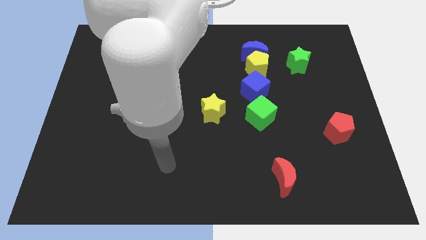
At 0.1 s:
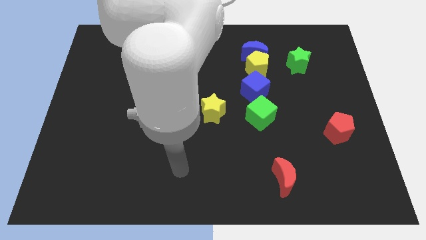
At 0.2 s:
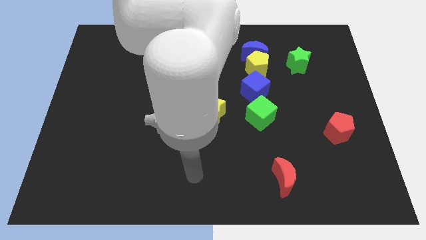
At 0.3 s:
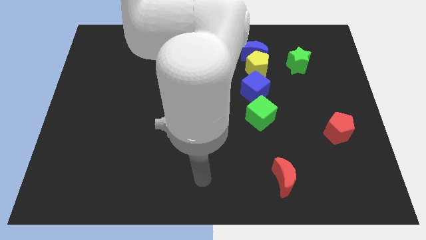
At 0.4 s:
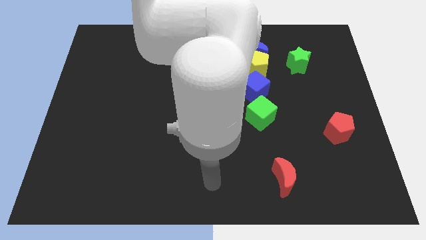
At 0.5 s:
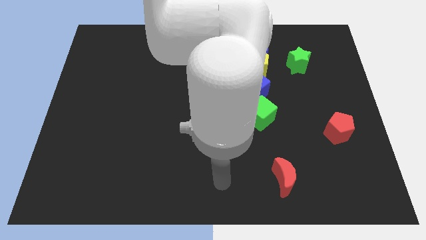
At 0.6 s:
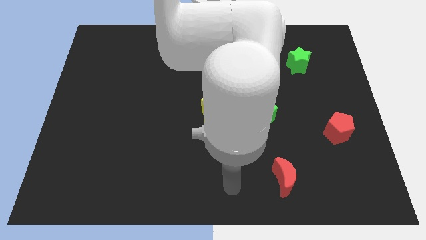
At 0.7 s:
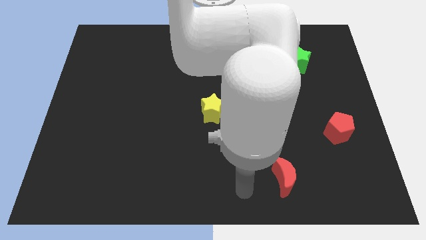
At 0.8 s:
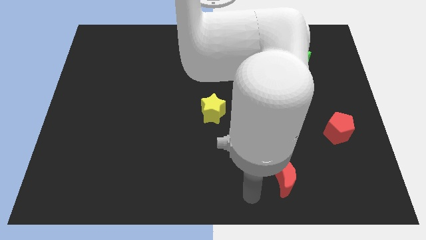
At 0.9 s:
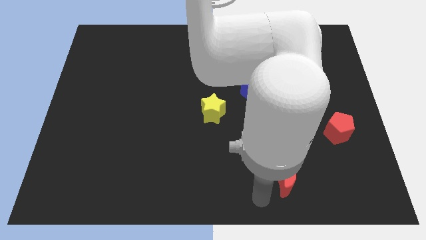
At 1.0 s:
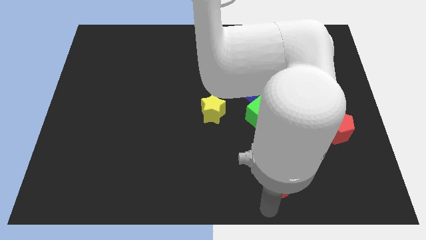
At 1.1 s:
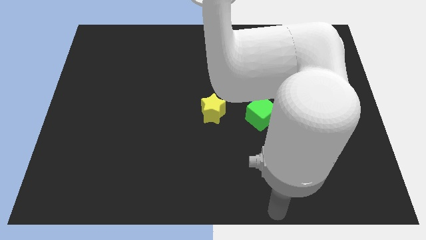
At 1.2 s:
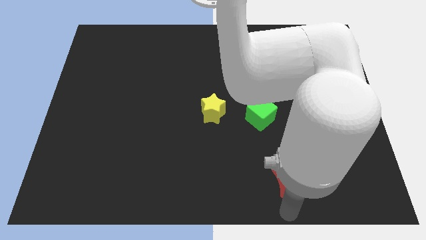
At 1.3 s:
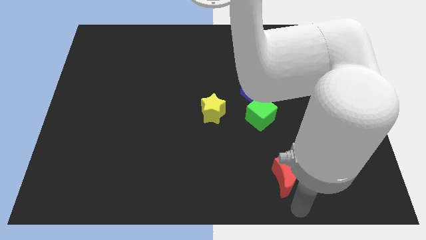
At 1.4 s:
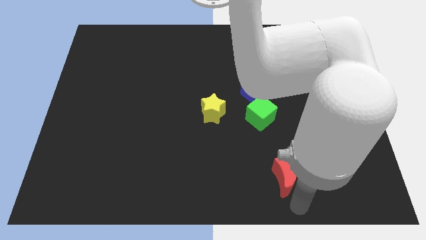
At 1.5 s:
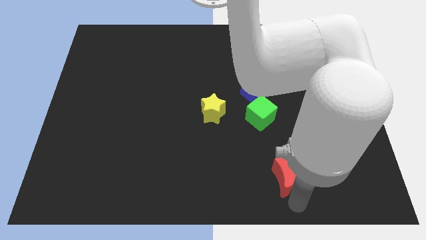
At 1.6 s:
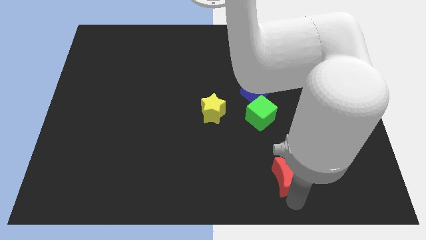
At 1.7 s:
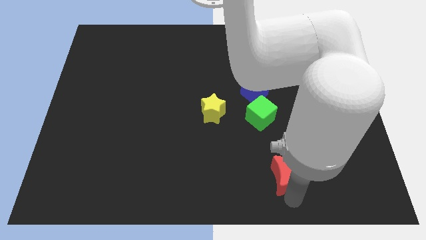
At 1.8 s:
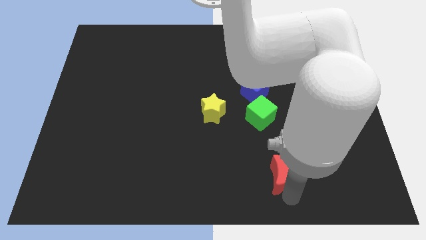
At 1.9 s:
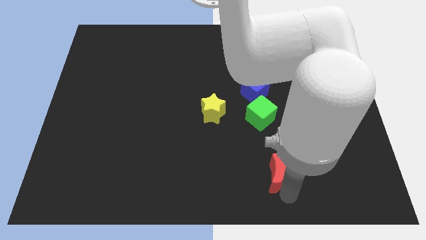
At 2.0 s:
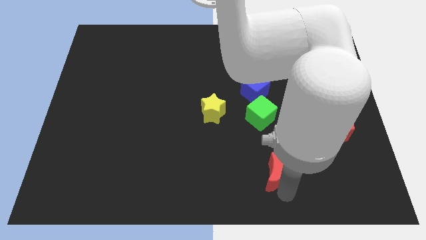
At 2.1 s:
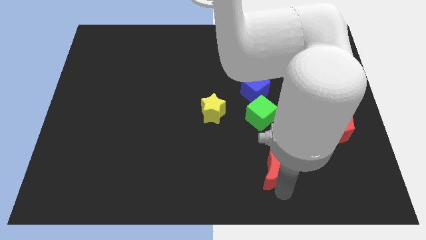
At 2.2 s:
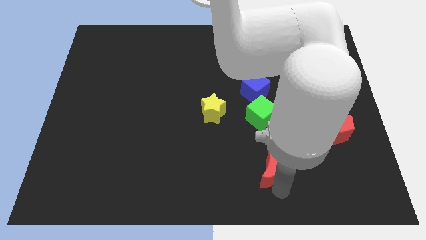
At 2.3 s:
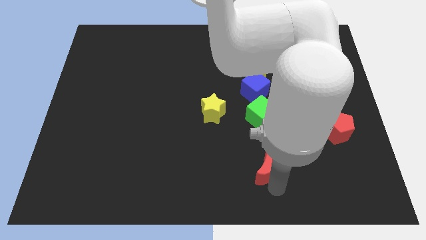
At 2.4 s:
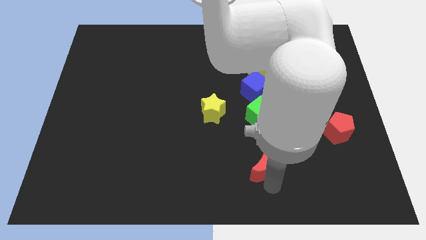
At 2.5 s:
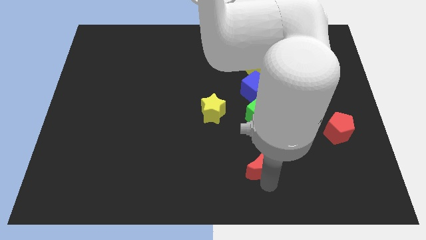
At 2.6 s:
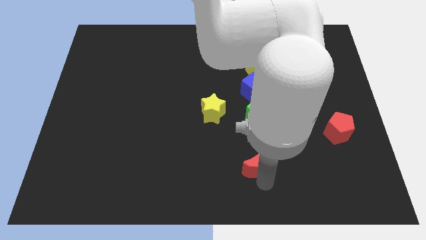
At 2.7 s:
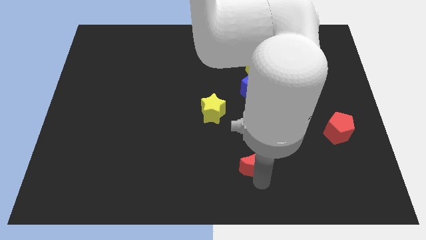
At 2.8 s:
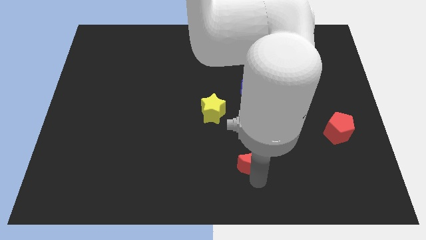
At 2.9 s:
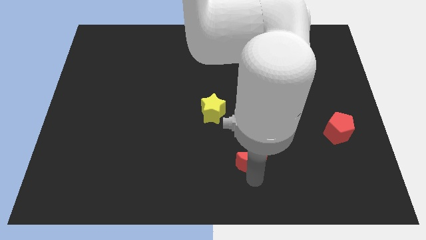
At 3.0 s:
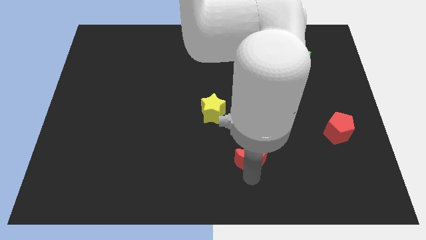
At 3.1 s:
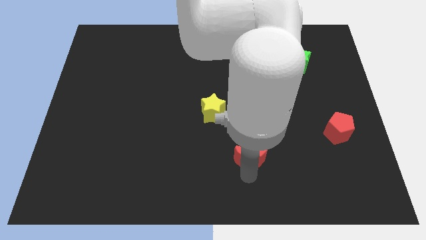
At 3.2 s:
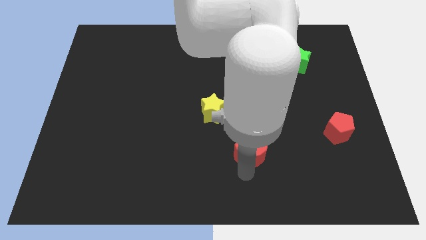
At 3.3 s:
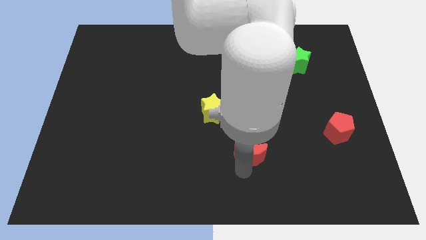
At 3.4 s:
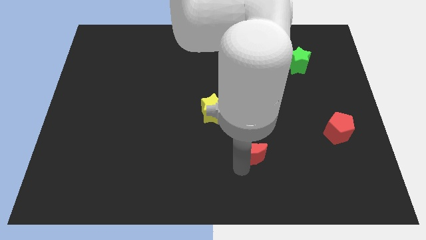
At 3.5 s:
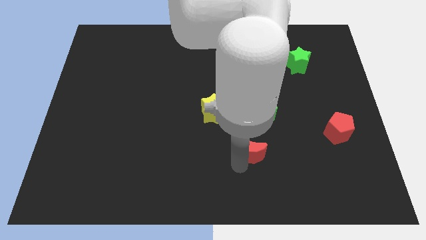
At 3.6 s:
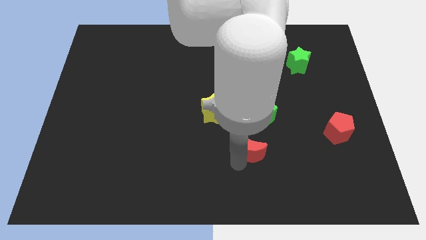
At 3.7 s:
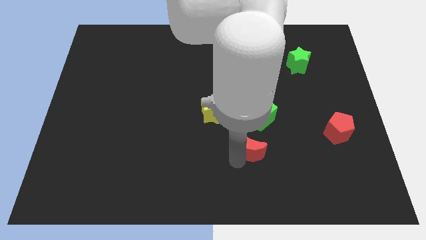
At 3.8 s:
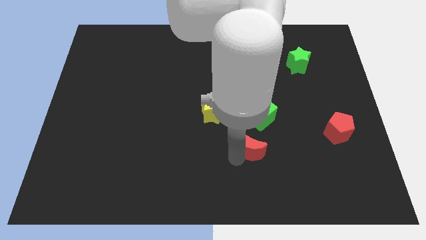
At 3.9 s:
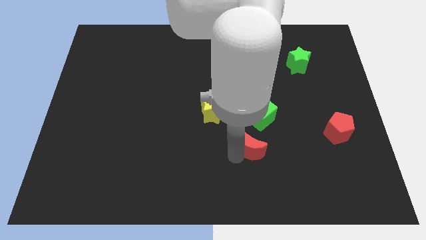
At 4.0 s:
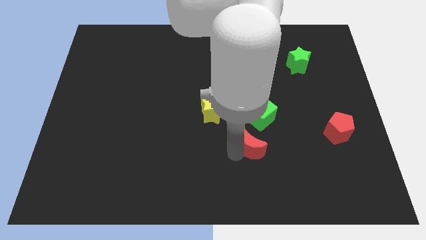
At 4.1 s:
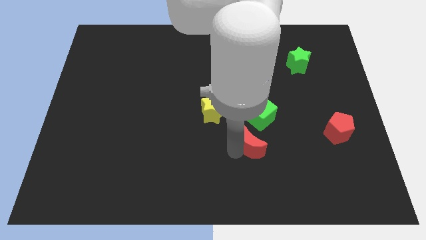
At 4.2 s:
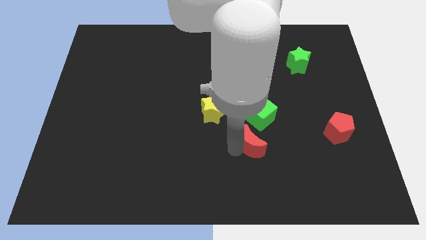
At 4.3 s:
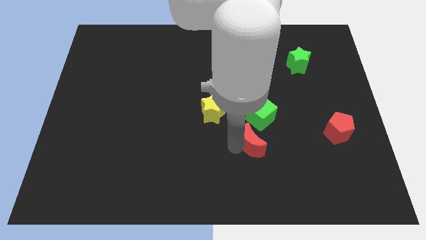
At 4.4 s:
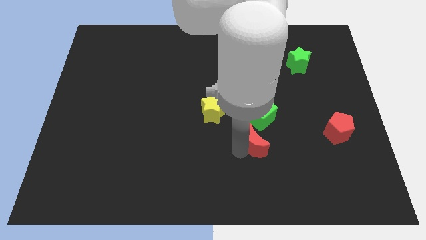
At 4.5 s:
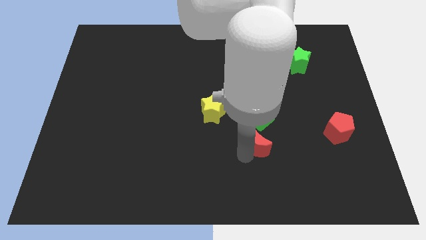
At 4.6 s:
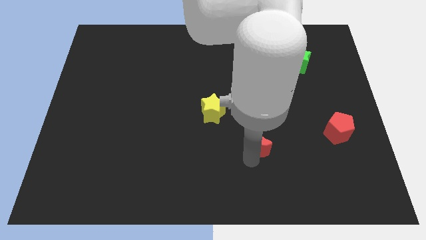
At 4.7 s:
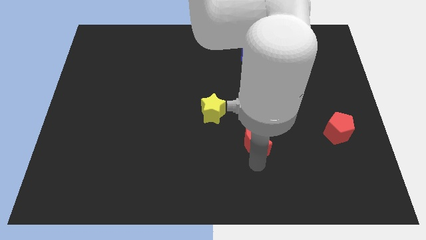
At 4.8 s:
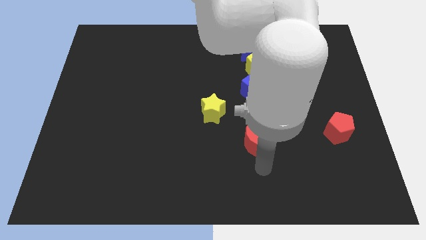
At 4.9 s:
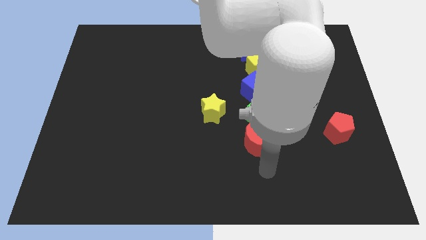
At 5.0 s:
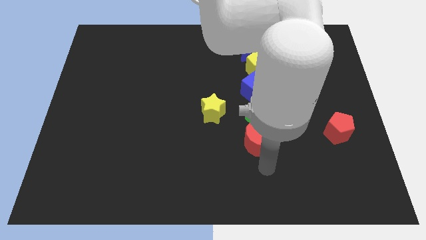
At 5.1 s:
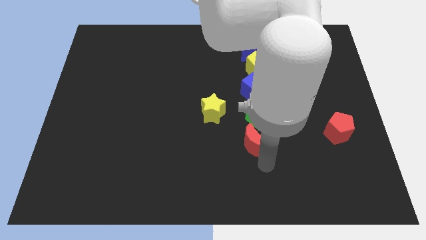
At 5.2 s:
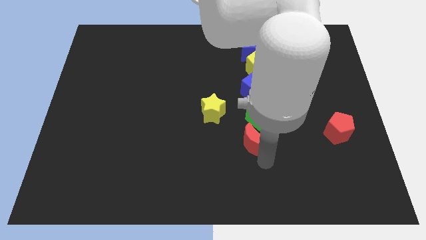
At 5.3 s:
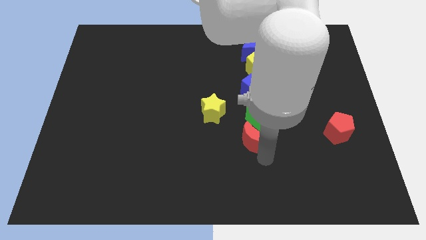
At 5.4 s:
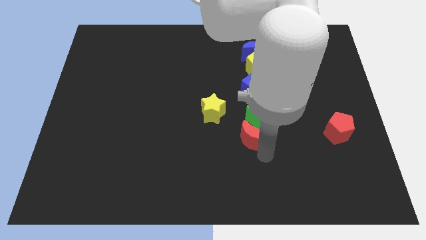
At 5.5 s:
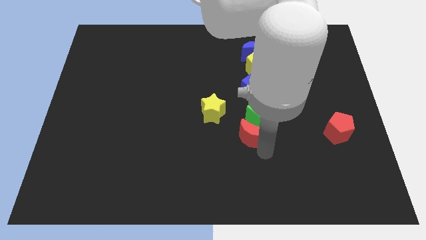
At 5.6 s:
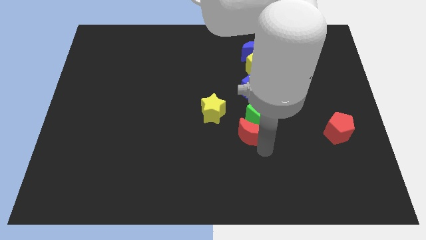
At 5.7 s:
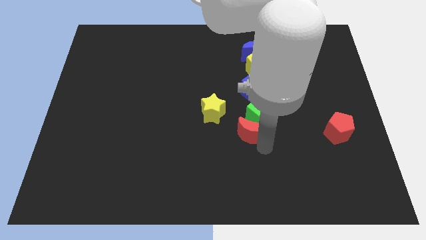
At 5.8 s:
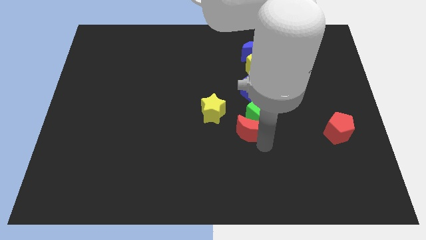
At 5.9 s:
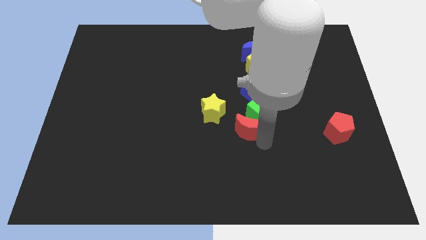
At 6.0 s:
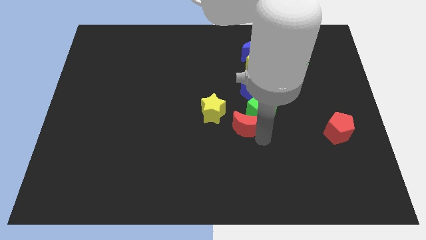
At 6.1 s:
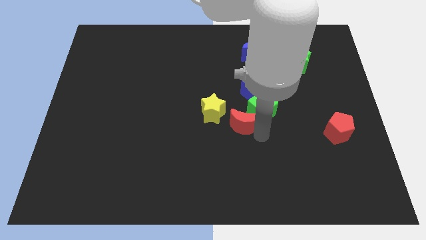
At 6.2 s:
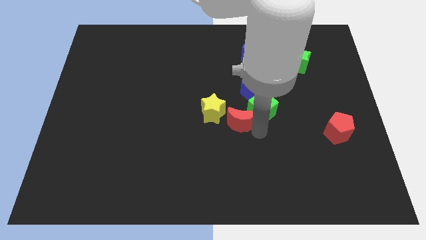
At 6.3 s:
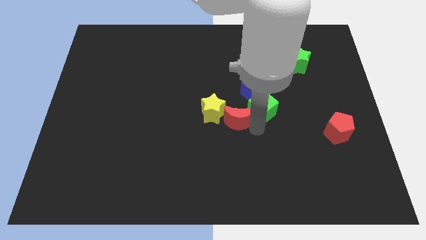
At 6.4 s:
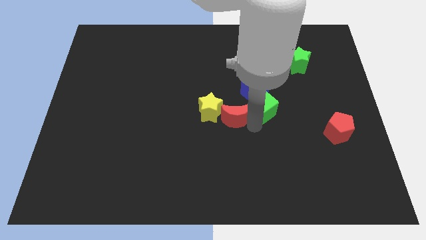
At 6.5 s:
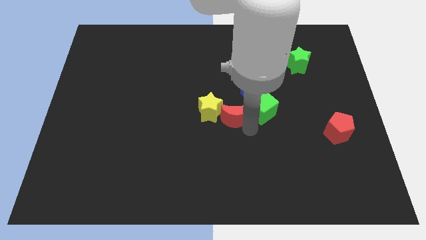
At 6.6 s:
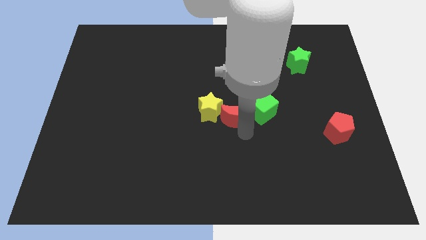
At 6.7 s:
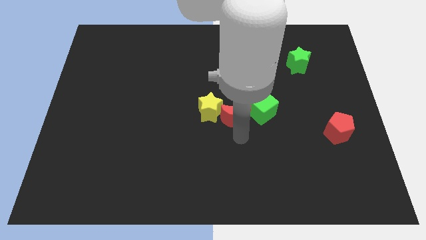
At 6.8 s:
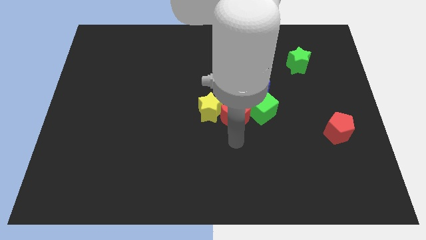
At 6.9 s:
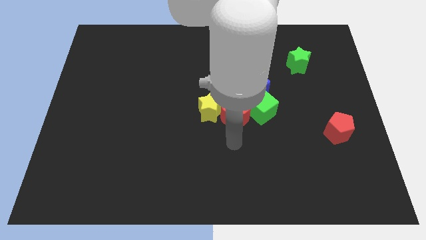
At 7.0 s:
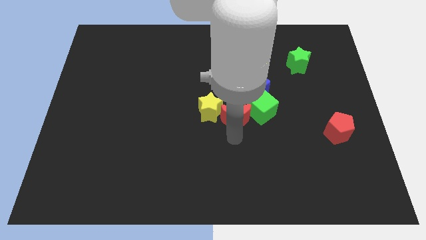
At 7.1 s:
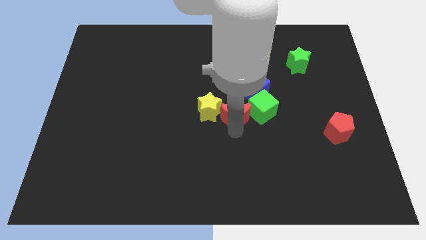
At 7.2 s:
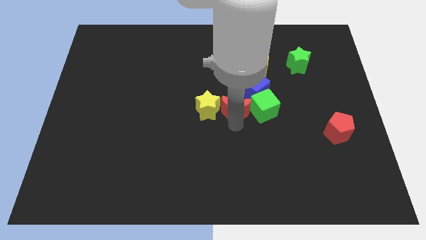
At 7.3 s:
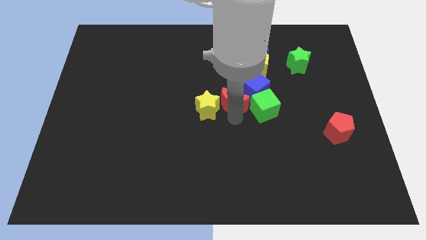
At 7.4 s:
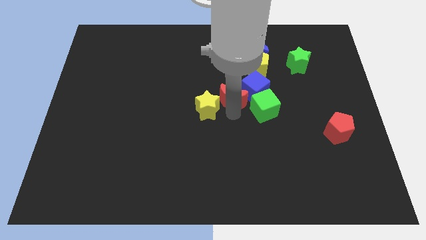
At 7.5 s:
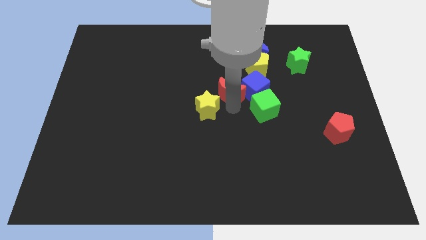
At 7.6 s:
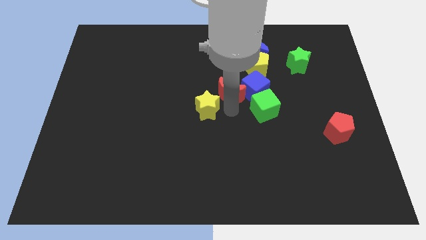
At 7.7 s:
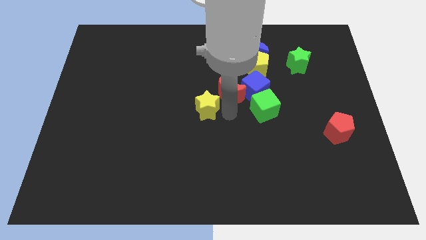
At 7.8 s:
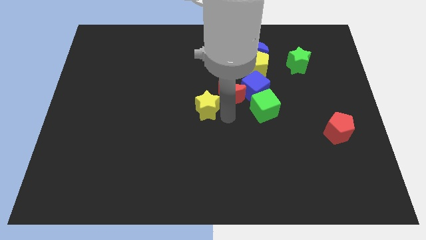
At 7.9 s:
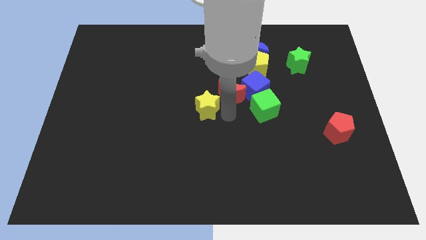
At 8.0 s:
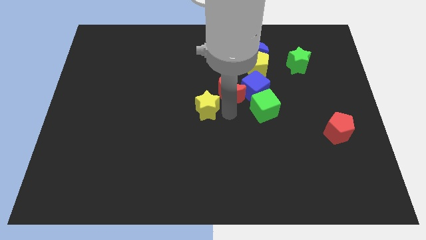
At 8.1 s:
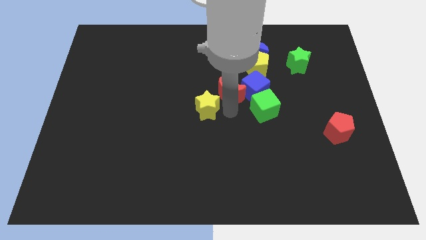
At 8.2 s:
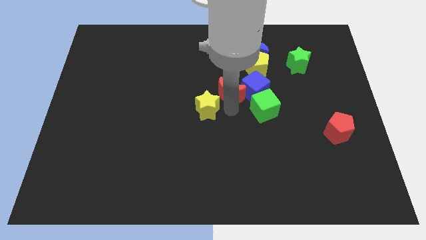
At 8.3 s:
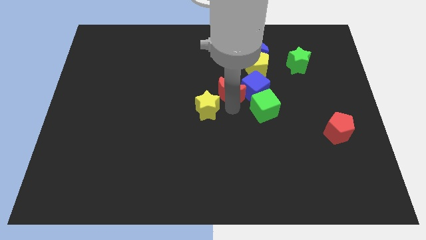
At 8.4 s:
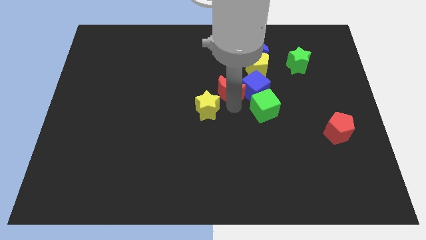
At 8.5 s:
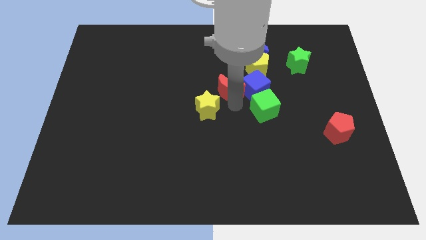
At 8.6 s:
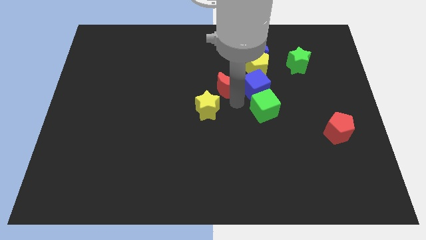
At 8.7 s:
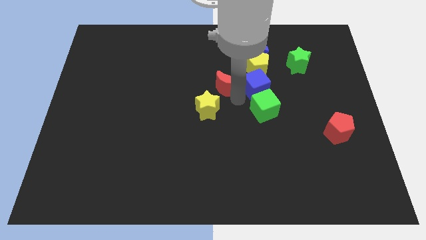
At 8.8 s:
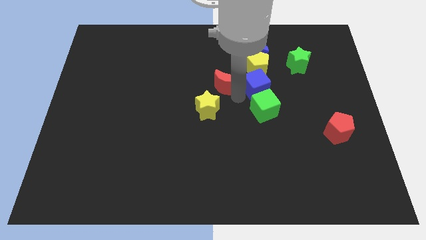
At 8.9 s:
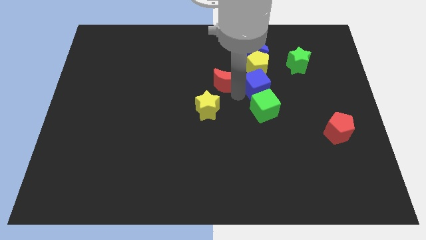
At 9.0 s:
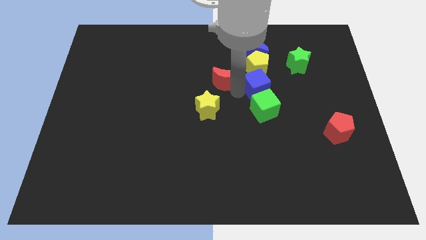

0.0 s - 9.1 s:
move the red moon to the left side of the yellow pentagon
